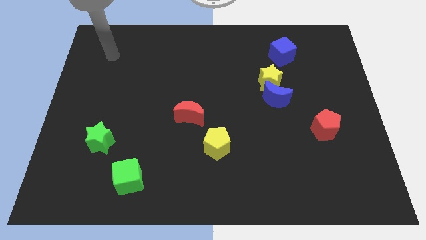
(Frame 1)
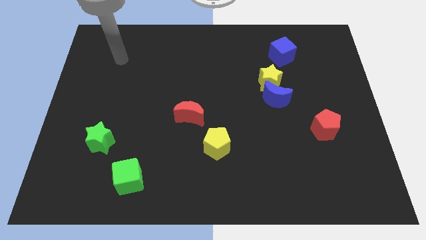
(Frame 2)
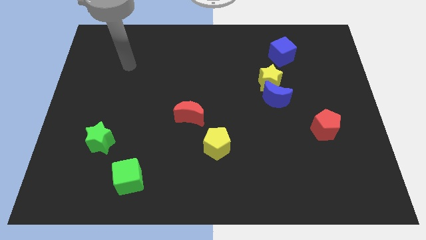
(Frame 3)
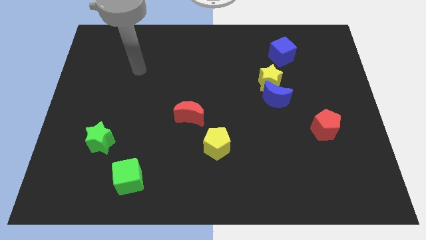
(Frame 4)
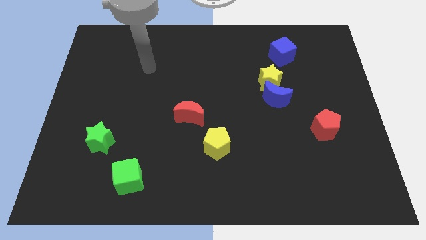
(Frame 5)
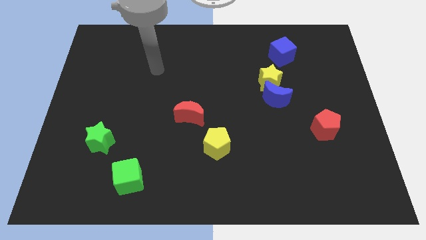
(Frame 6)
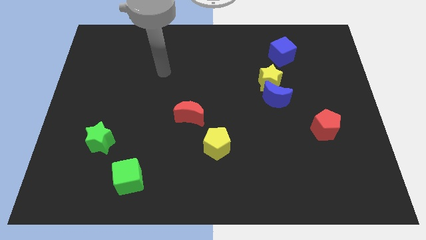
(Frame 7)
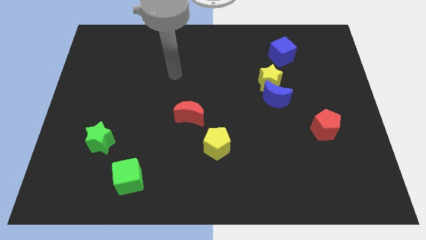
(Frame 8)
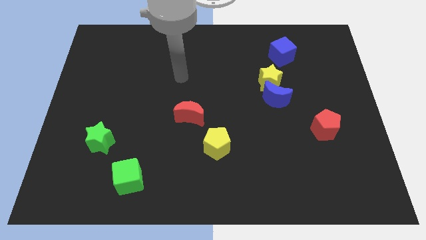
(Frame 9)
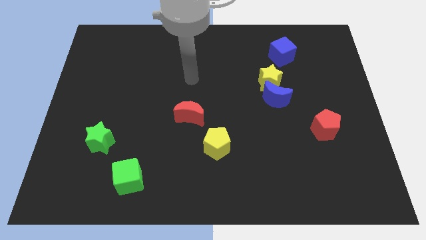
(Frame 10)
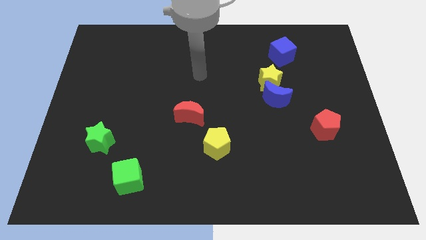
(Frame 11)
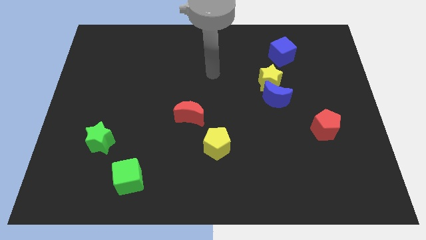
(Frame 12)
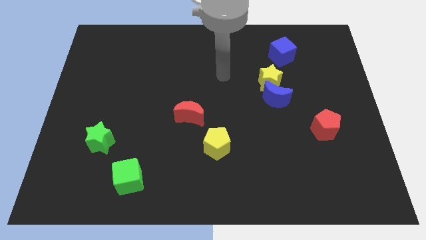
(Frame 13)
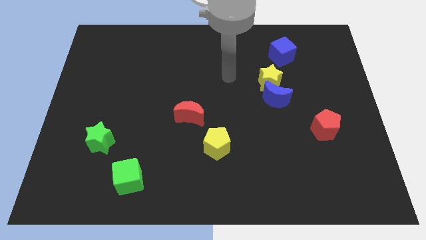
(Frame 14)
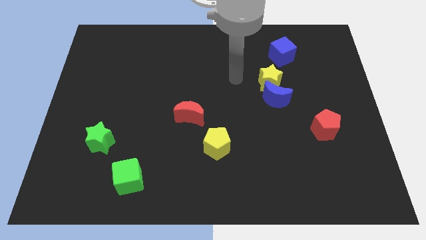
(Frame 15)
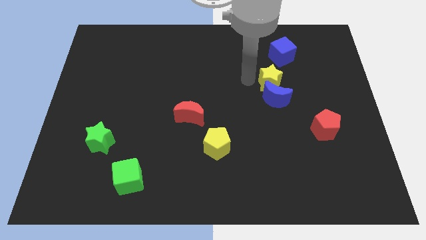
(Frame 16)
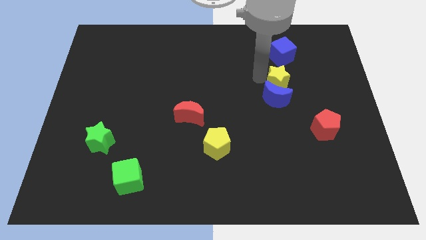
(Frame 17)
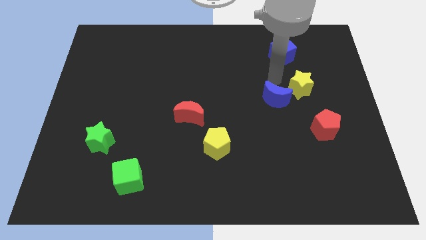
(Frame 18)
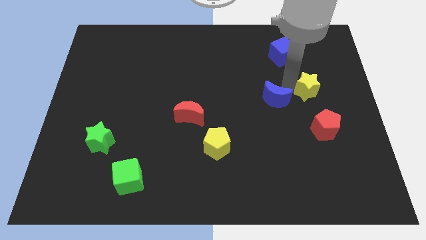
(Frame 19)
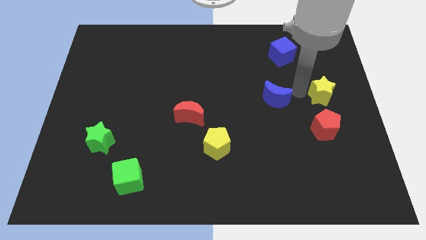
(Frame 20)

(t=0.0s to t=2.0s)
move the blue moon away from the yellow star

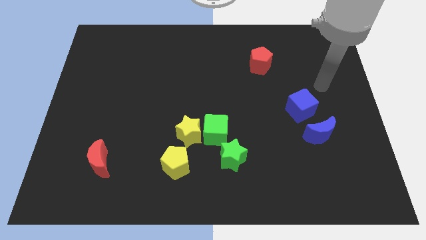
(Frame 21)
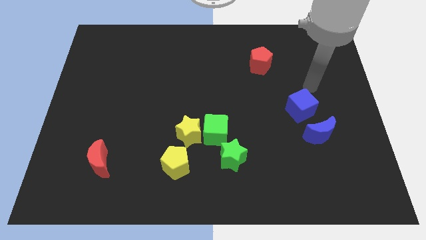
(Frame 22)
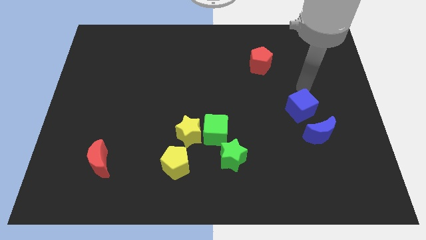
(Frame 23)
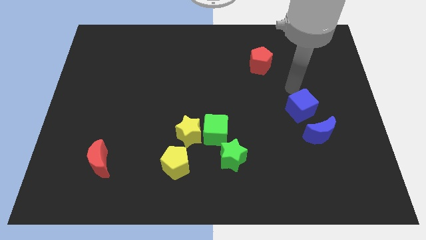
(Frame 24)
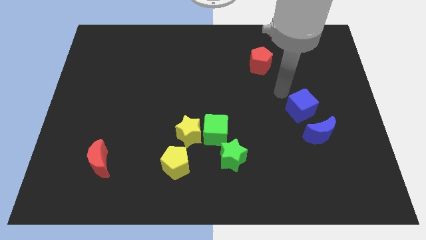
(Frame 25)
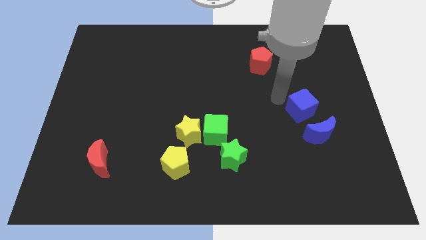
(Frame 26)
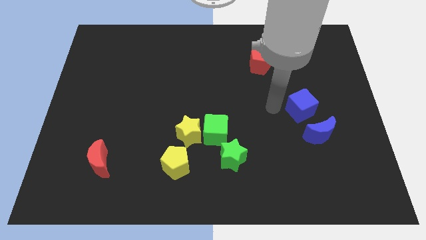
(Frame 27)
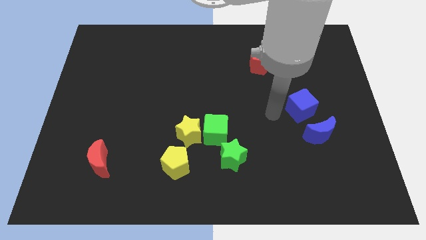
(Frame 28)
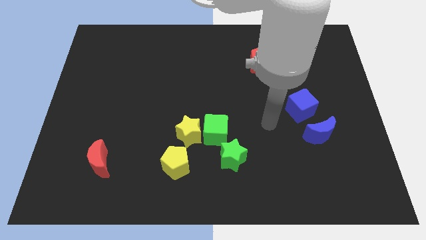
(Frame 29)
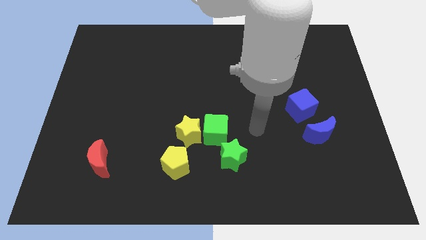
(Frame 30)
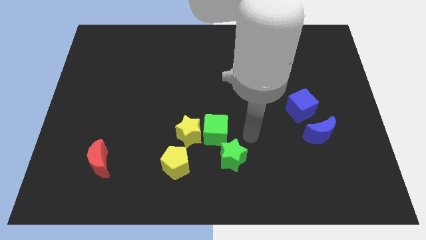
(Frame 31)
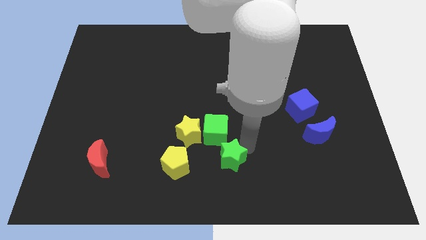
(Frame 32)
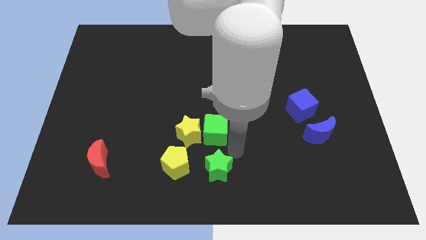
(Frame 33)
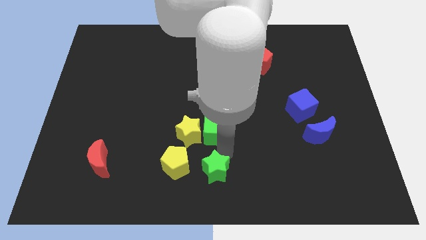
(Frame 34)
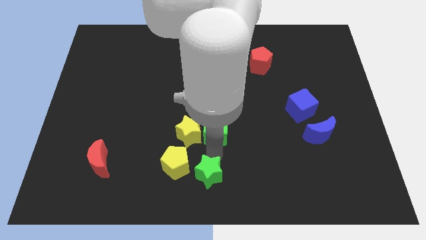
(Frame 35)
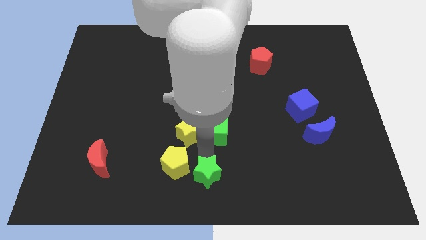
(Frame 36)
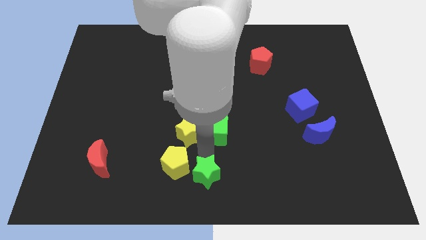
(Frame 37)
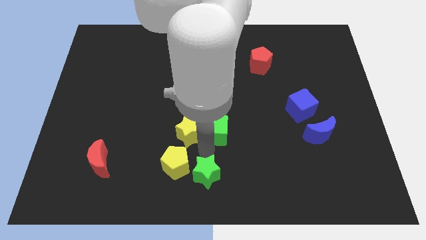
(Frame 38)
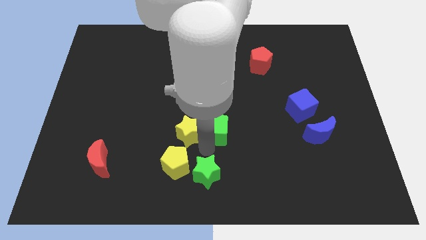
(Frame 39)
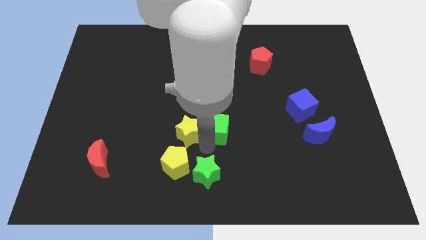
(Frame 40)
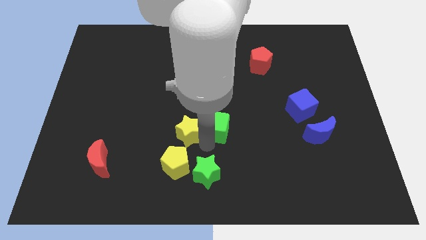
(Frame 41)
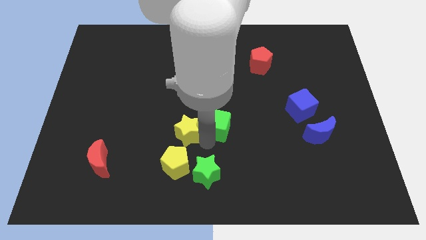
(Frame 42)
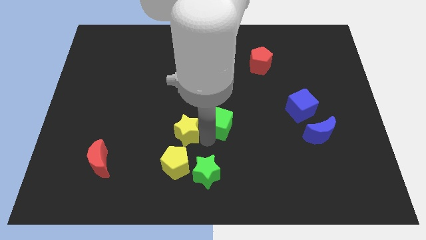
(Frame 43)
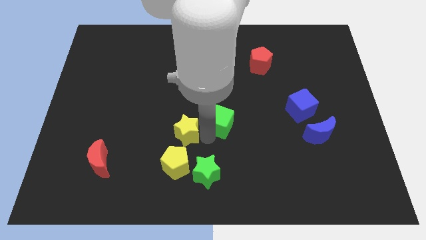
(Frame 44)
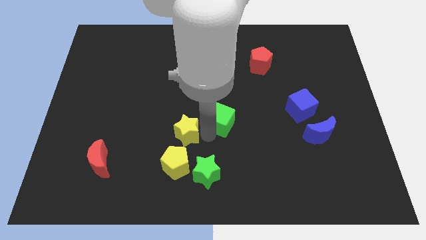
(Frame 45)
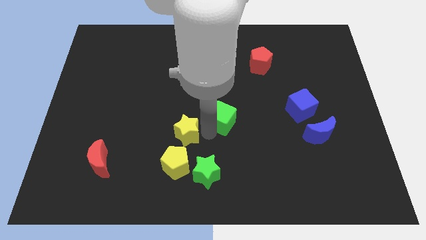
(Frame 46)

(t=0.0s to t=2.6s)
separate the green cube from the yellow star and green star

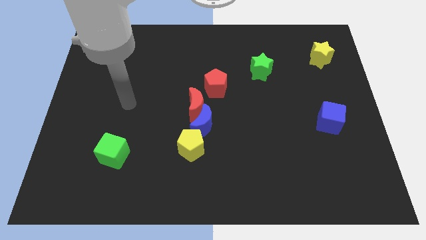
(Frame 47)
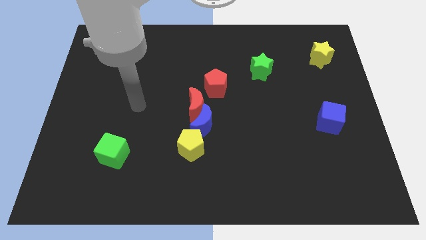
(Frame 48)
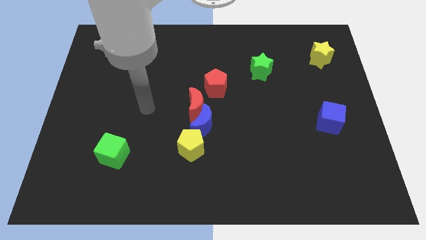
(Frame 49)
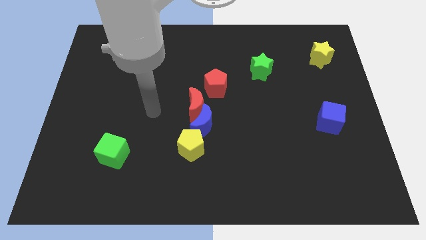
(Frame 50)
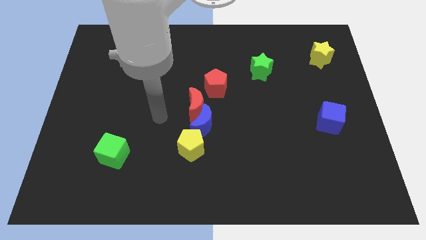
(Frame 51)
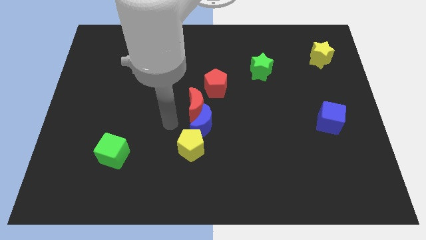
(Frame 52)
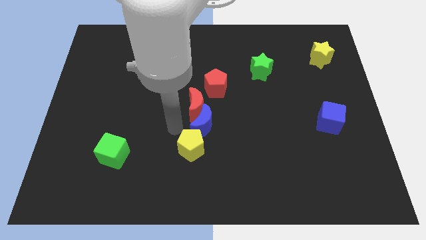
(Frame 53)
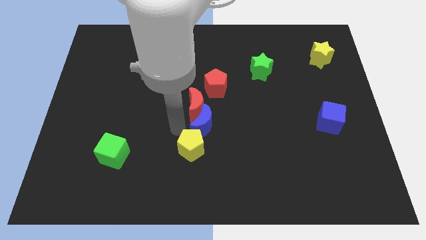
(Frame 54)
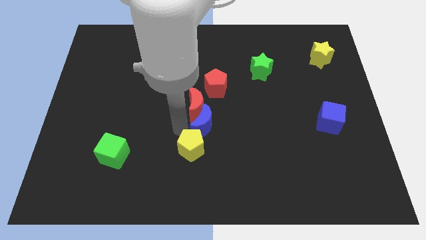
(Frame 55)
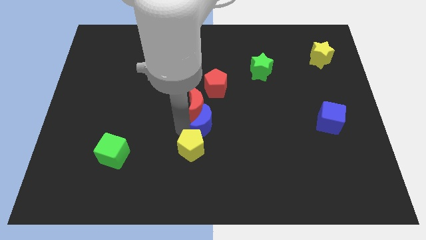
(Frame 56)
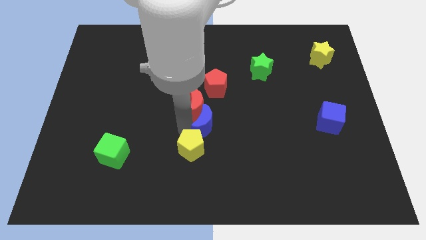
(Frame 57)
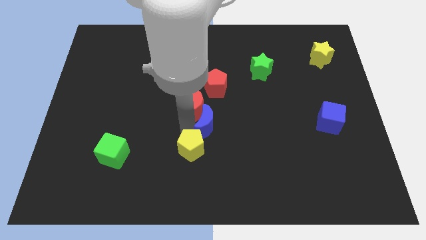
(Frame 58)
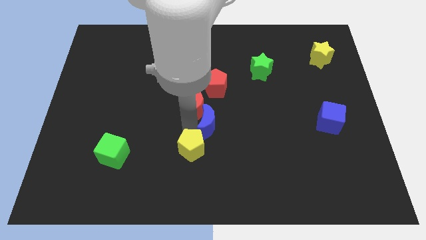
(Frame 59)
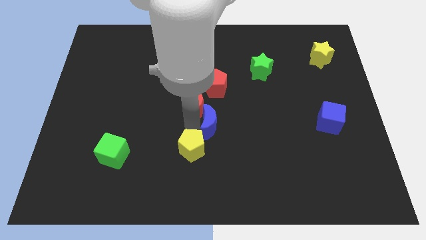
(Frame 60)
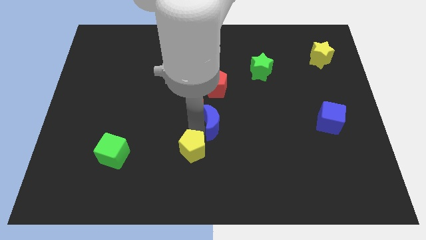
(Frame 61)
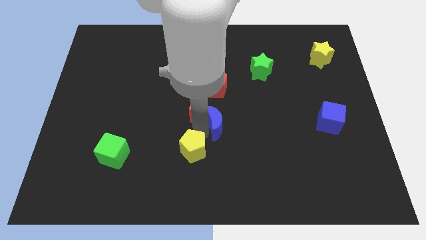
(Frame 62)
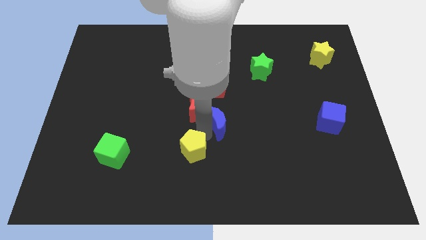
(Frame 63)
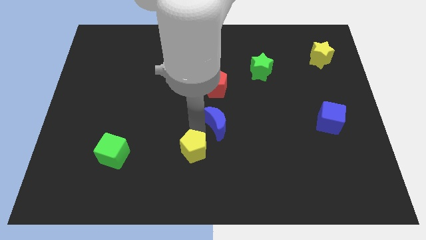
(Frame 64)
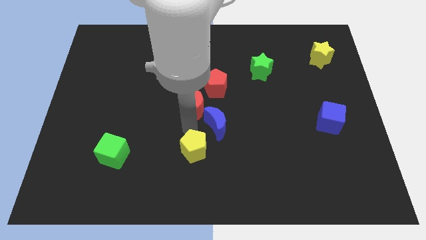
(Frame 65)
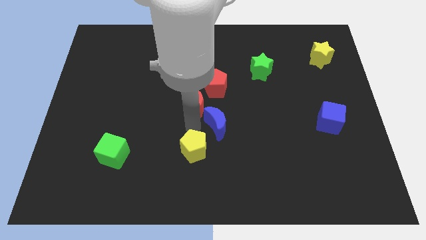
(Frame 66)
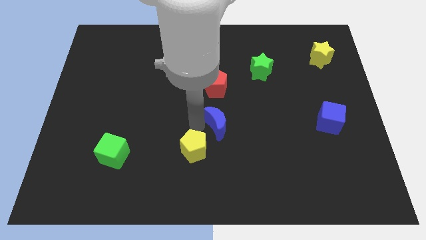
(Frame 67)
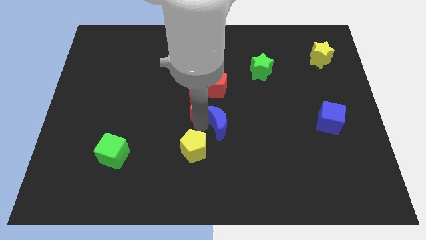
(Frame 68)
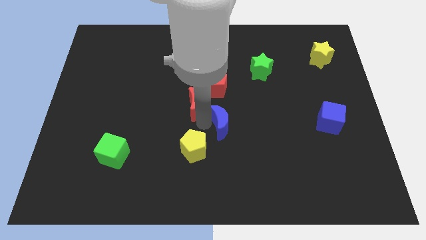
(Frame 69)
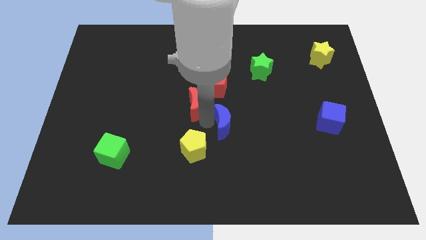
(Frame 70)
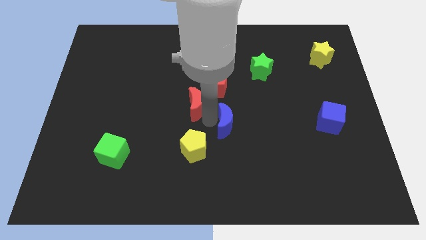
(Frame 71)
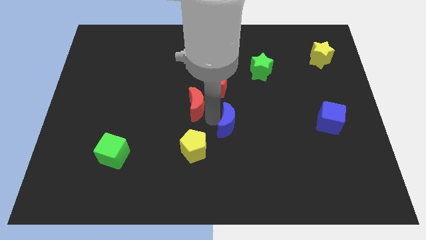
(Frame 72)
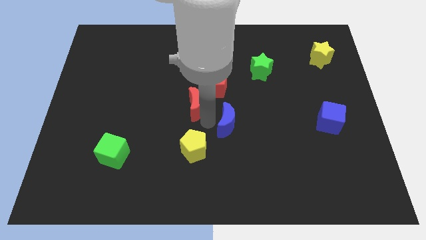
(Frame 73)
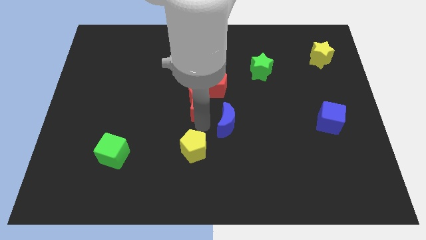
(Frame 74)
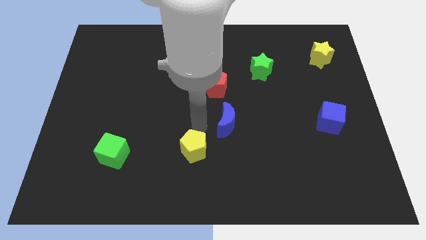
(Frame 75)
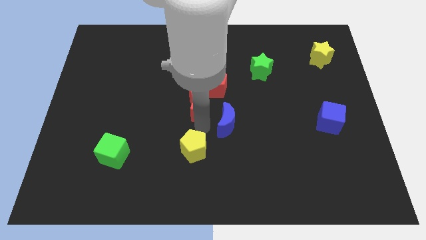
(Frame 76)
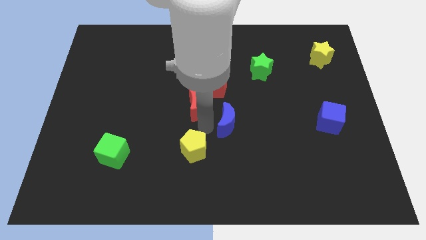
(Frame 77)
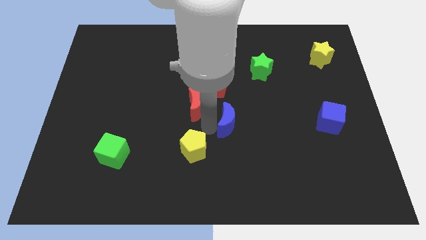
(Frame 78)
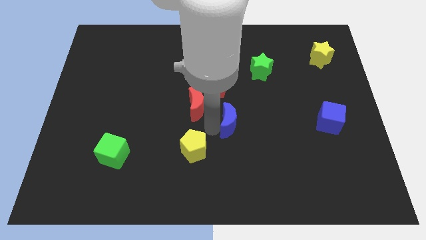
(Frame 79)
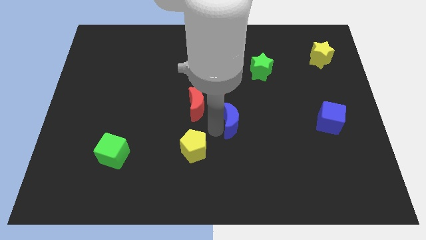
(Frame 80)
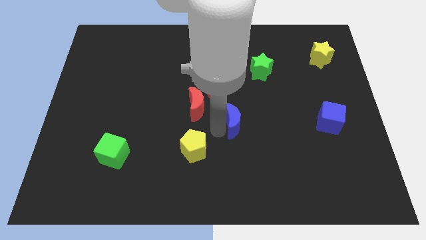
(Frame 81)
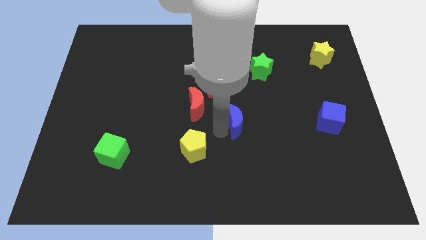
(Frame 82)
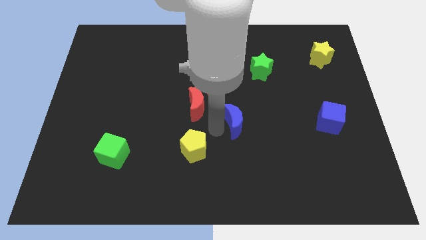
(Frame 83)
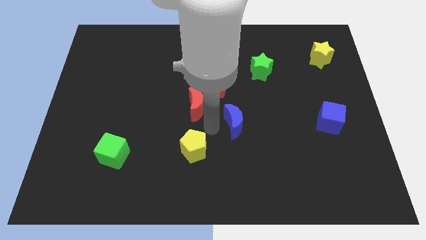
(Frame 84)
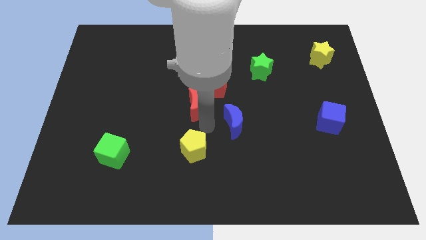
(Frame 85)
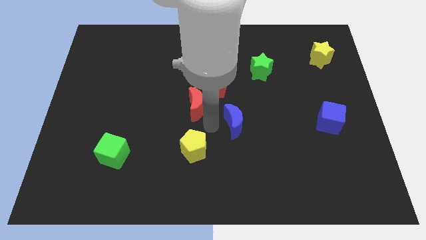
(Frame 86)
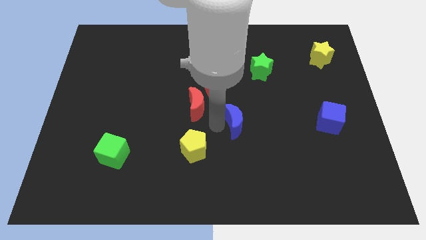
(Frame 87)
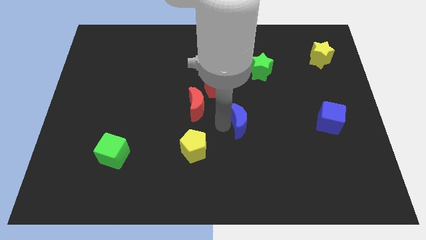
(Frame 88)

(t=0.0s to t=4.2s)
move the blue moon away from the red moon and yellow pentagon

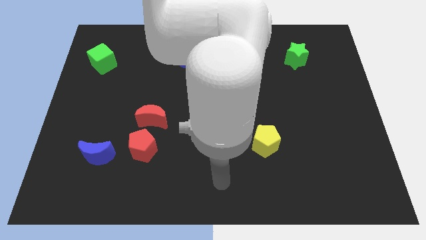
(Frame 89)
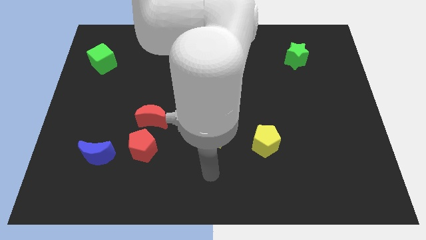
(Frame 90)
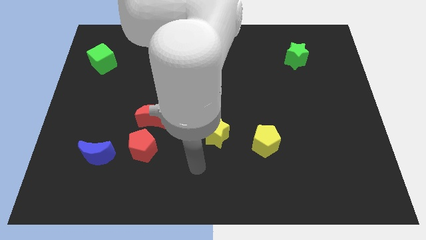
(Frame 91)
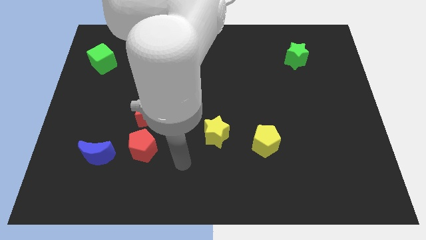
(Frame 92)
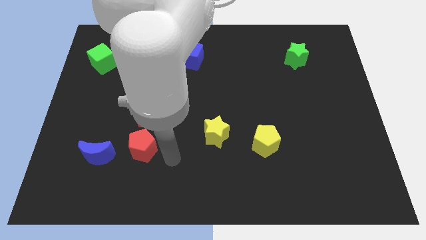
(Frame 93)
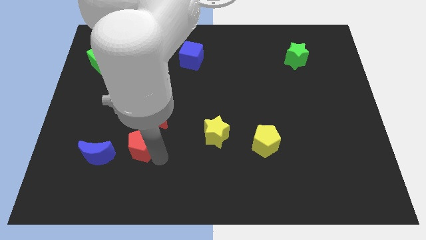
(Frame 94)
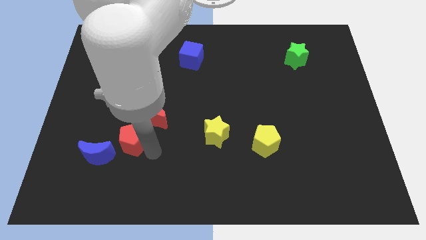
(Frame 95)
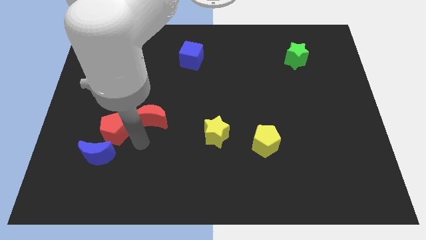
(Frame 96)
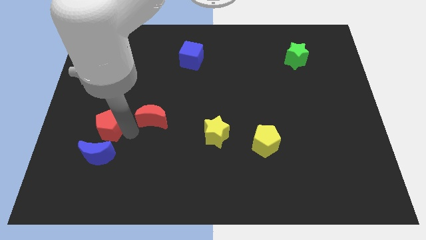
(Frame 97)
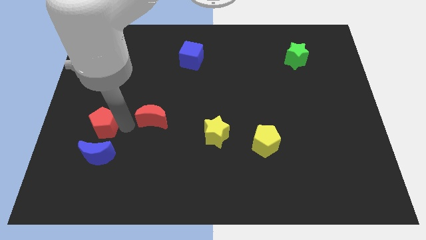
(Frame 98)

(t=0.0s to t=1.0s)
pull the red moon apart from the red pentagon
